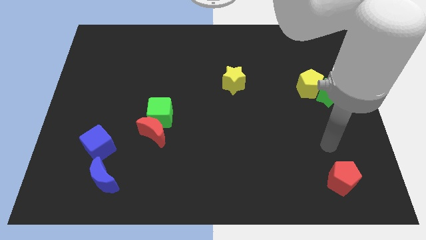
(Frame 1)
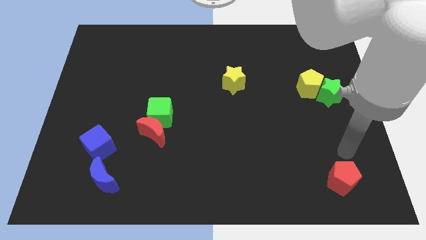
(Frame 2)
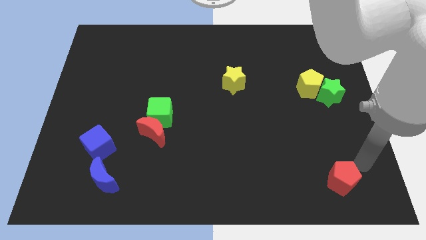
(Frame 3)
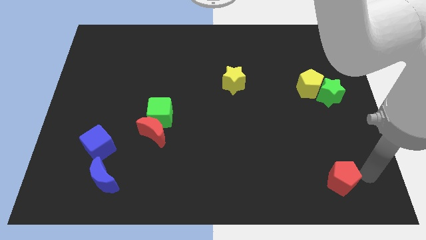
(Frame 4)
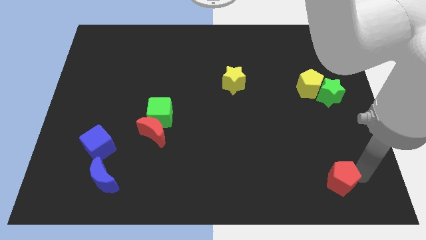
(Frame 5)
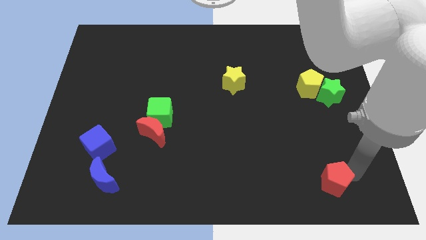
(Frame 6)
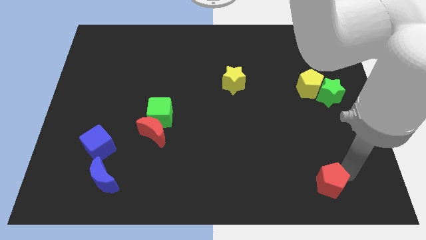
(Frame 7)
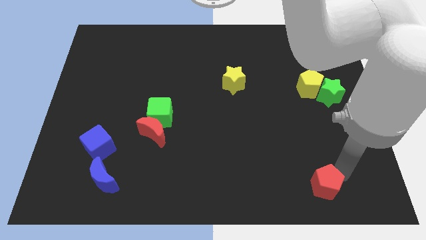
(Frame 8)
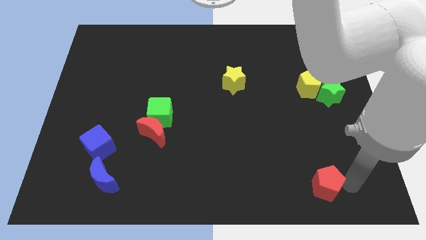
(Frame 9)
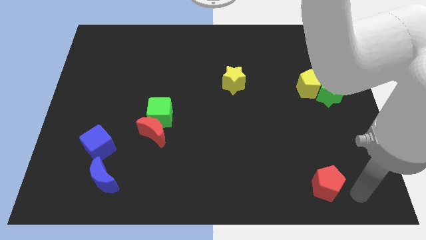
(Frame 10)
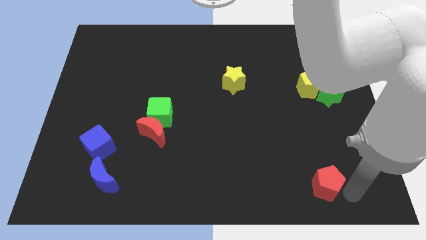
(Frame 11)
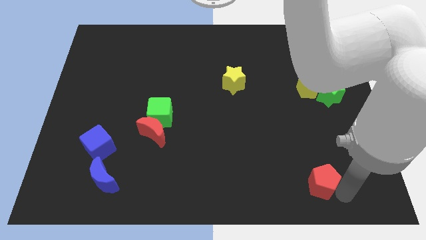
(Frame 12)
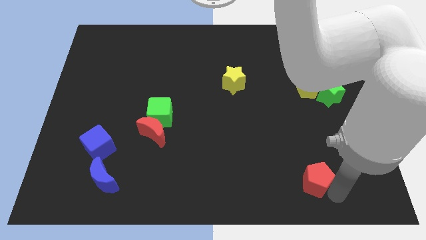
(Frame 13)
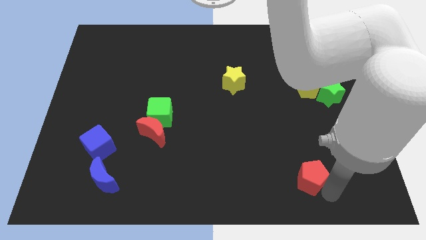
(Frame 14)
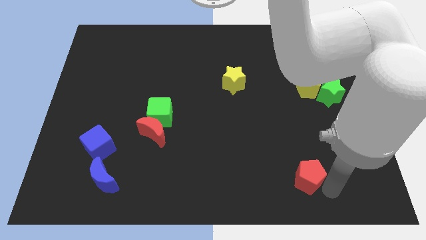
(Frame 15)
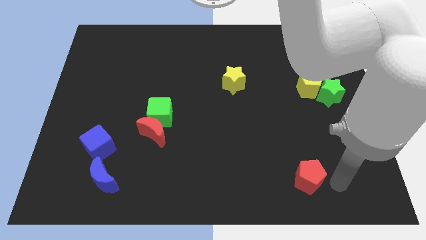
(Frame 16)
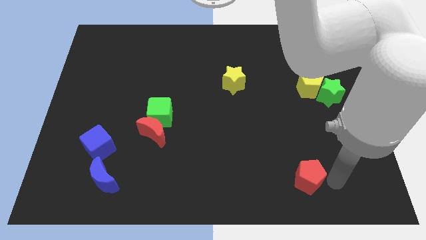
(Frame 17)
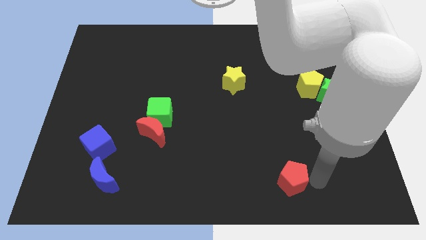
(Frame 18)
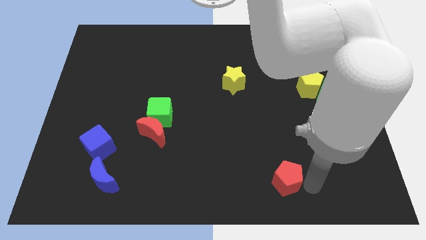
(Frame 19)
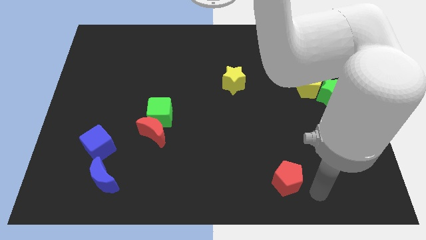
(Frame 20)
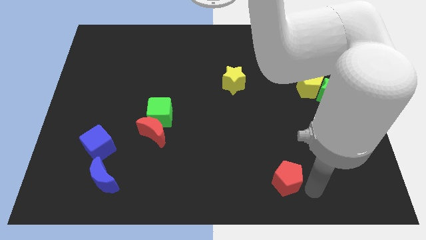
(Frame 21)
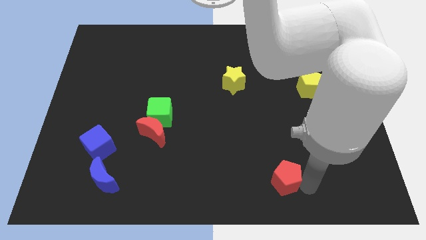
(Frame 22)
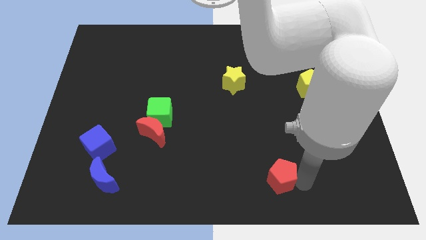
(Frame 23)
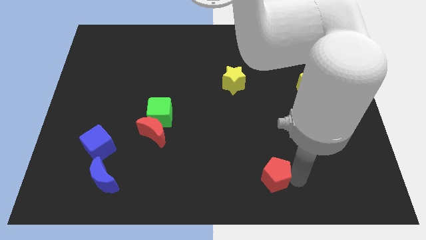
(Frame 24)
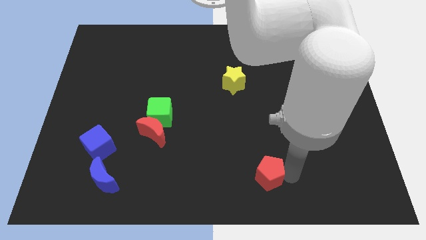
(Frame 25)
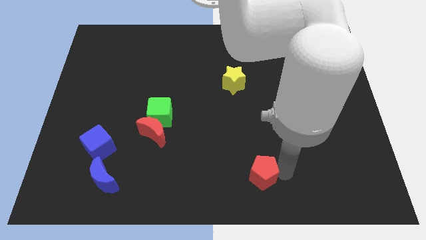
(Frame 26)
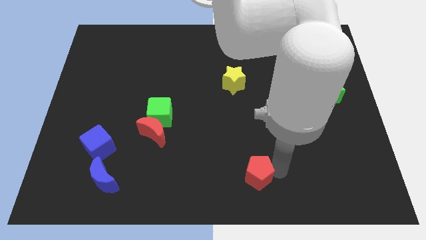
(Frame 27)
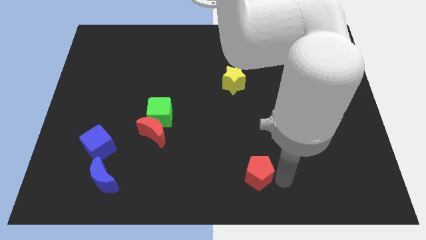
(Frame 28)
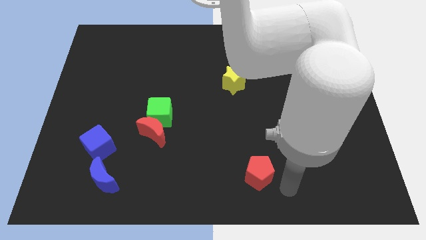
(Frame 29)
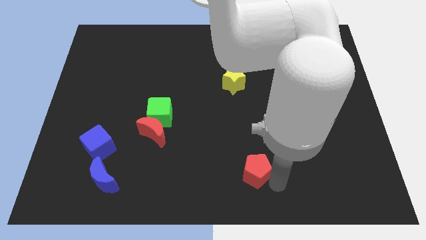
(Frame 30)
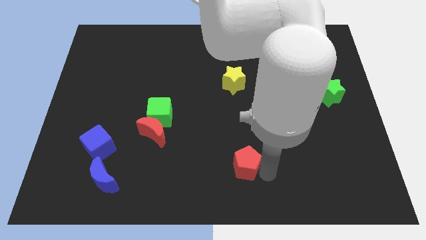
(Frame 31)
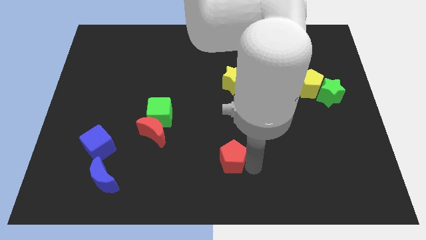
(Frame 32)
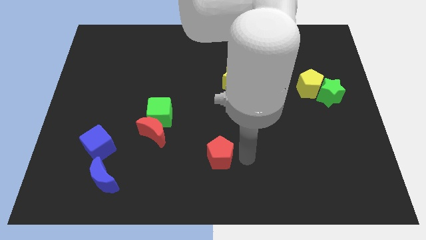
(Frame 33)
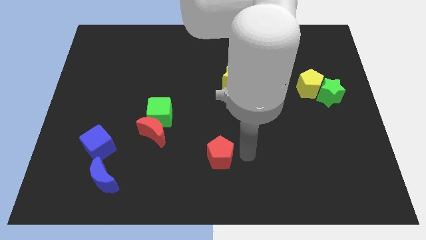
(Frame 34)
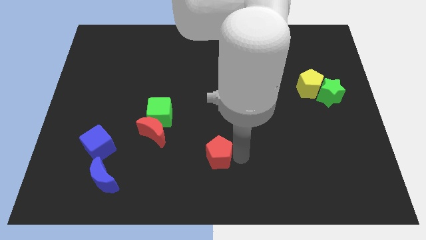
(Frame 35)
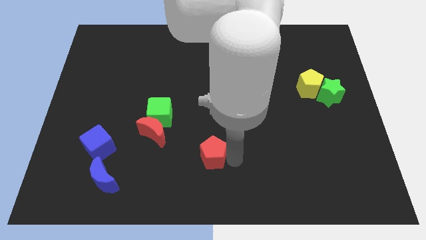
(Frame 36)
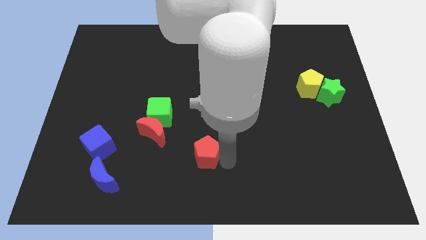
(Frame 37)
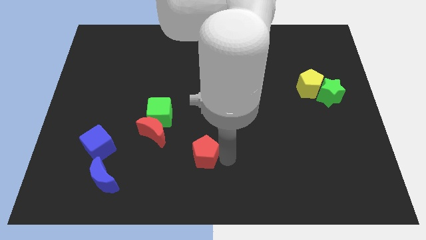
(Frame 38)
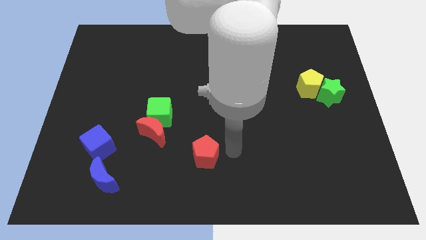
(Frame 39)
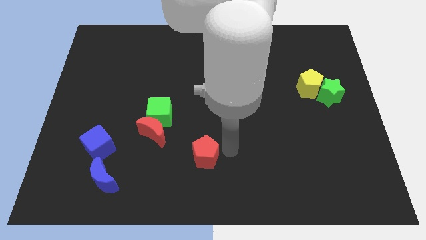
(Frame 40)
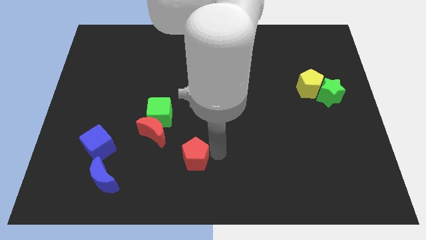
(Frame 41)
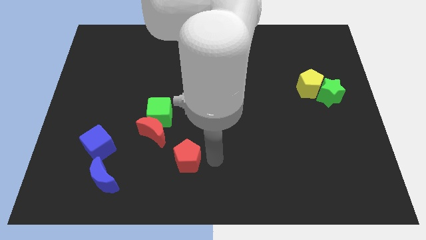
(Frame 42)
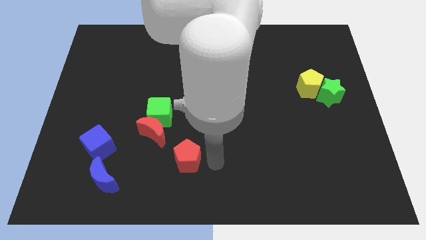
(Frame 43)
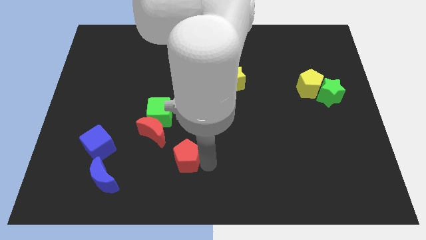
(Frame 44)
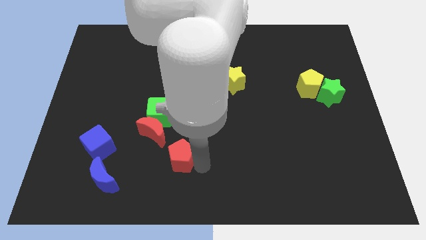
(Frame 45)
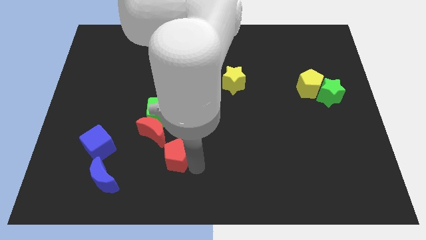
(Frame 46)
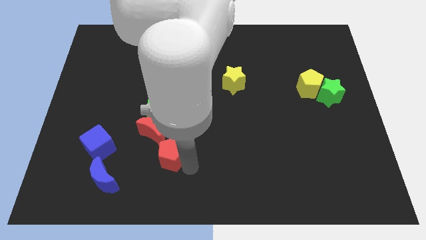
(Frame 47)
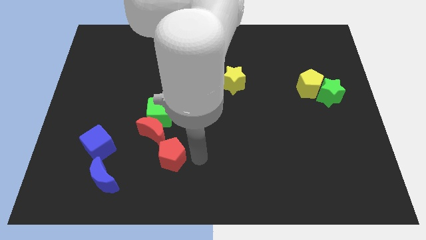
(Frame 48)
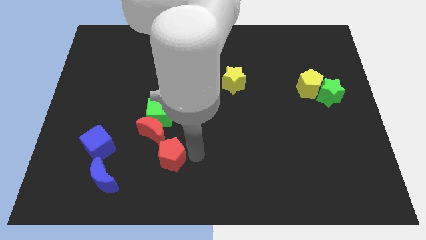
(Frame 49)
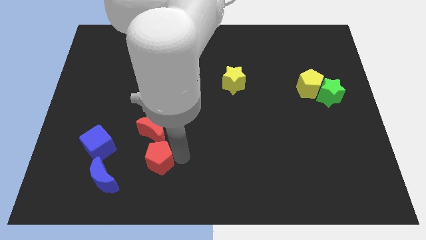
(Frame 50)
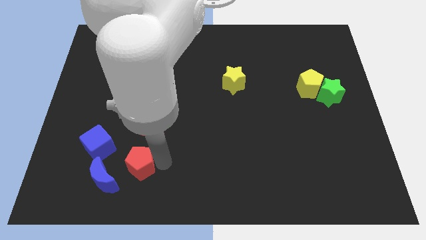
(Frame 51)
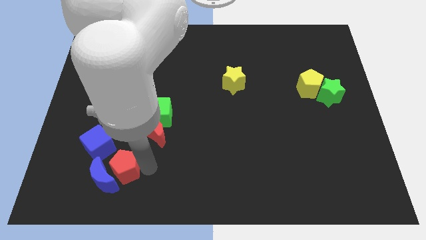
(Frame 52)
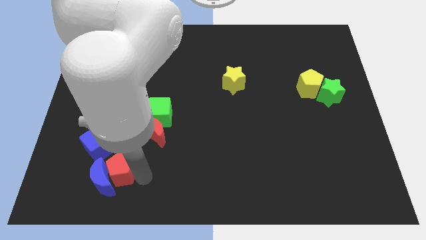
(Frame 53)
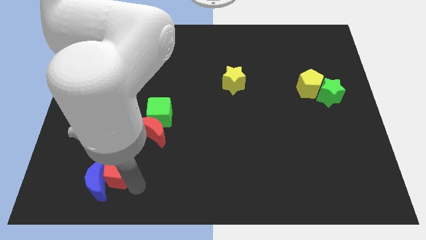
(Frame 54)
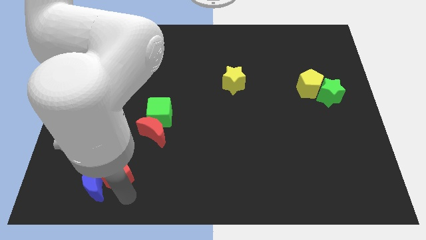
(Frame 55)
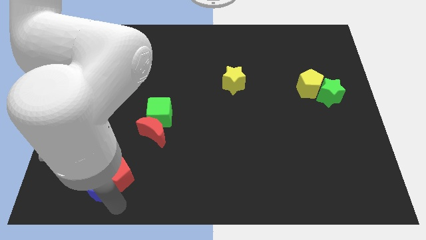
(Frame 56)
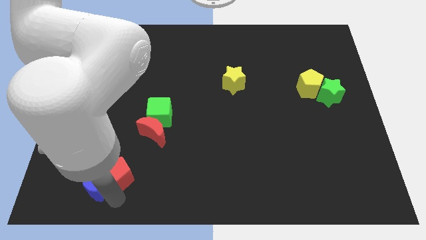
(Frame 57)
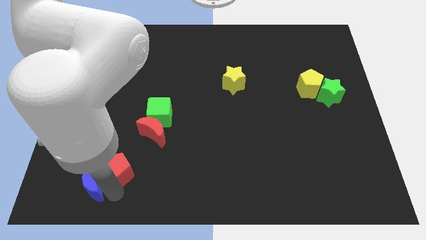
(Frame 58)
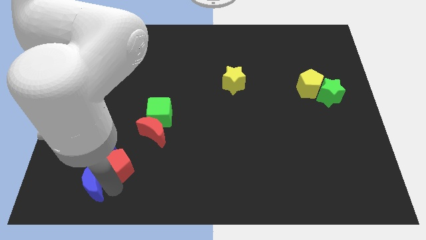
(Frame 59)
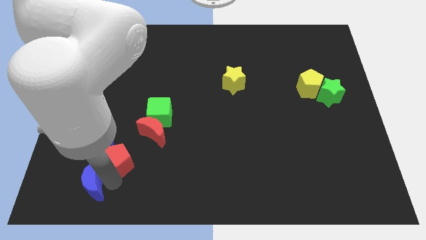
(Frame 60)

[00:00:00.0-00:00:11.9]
slide the red pentagon close to the blue cube

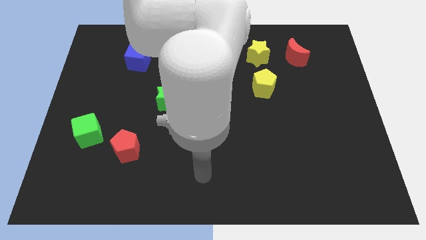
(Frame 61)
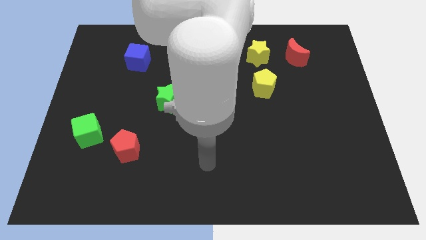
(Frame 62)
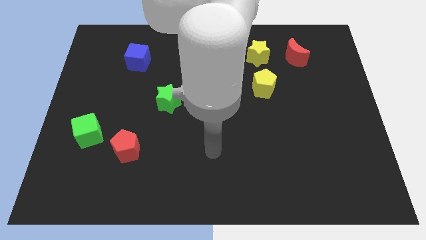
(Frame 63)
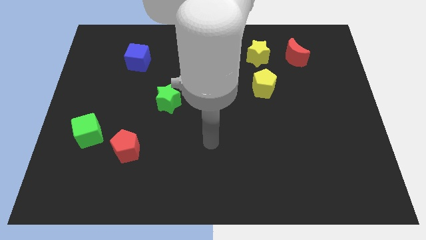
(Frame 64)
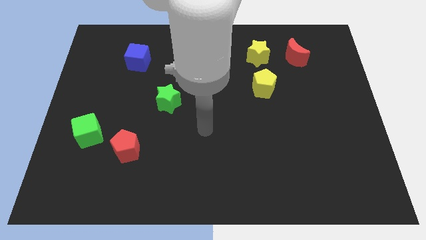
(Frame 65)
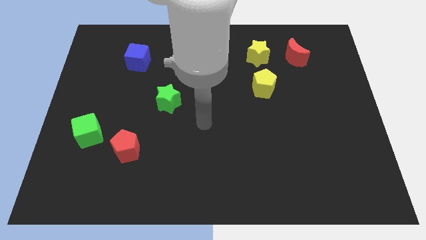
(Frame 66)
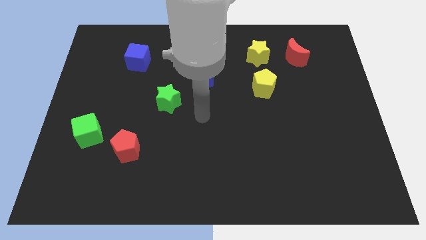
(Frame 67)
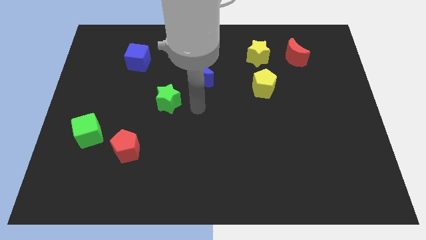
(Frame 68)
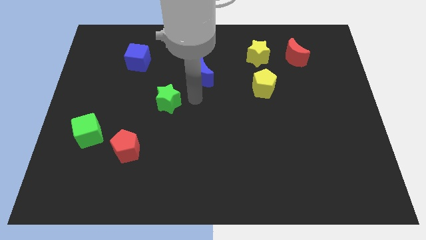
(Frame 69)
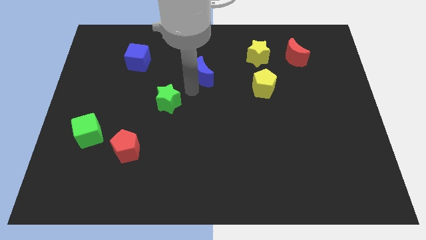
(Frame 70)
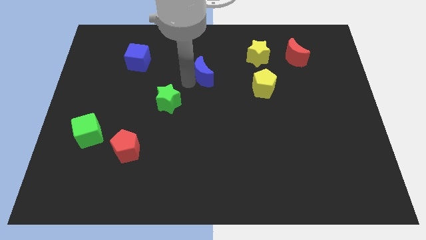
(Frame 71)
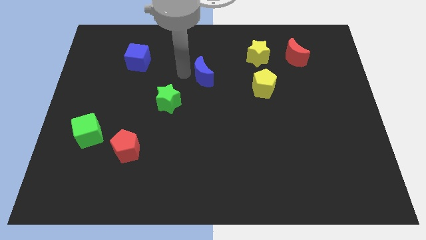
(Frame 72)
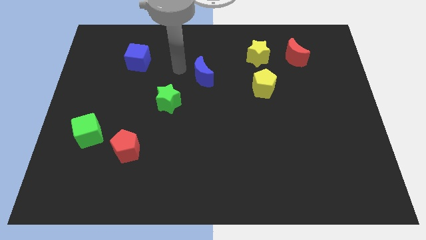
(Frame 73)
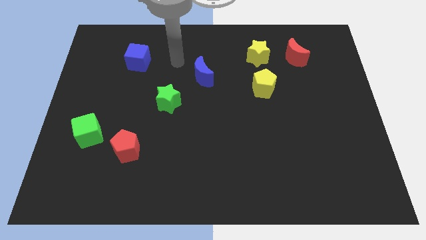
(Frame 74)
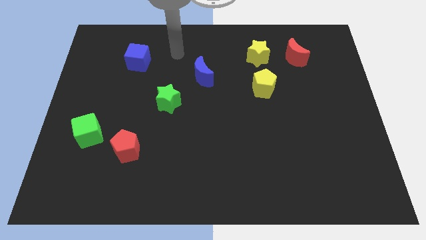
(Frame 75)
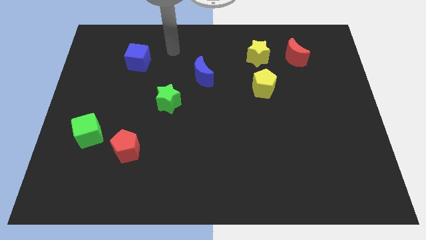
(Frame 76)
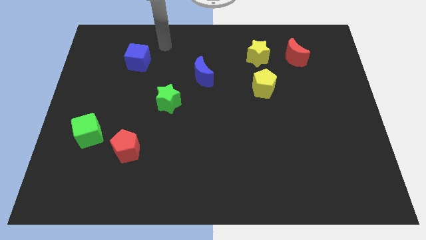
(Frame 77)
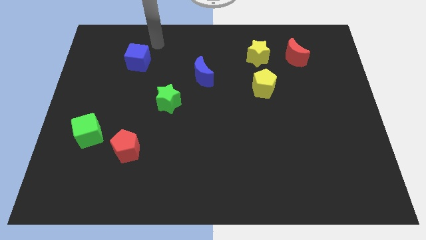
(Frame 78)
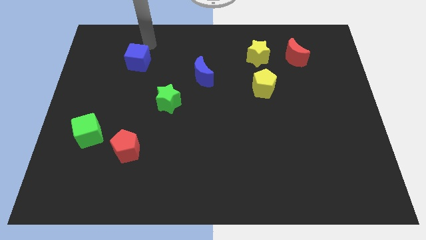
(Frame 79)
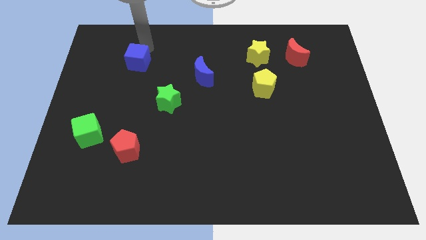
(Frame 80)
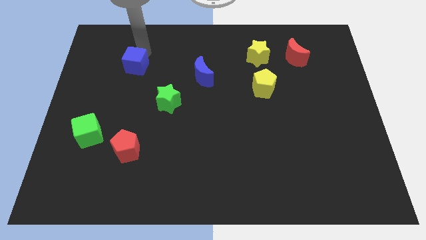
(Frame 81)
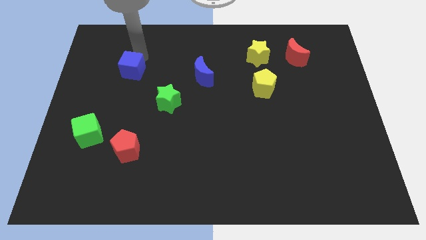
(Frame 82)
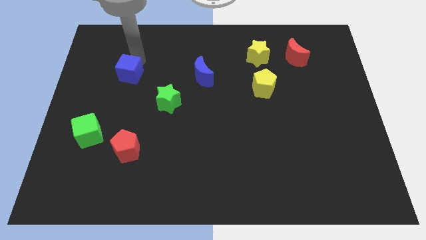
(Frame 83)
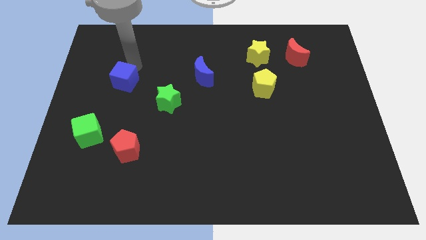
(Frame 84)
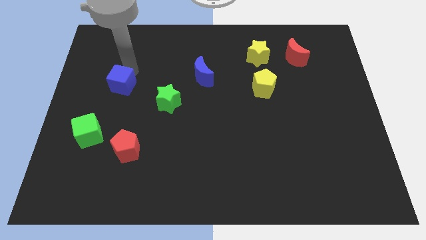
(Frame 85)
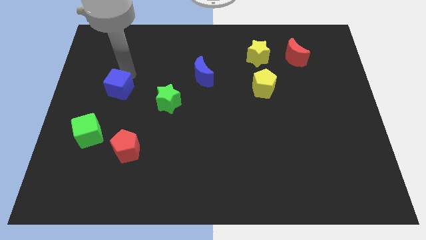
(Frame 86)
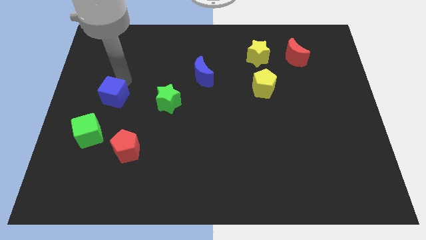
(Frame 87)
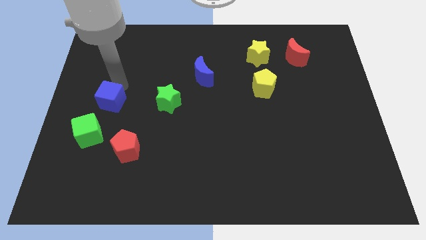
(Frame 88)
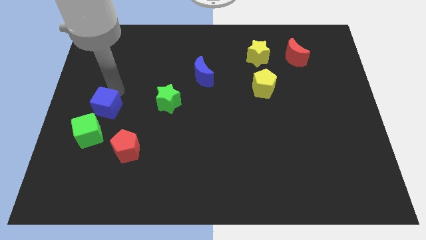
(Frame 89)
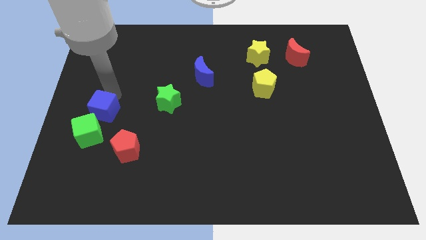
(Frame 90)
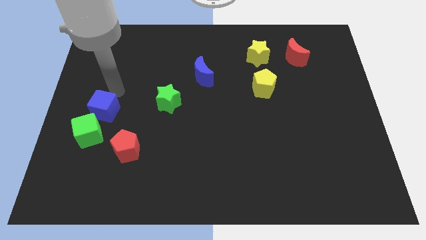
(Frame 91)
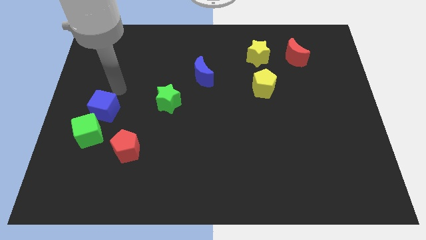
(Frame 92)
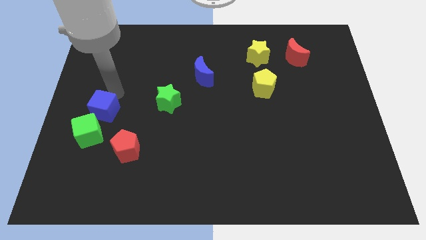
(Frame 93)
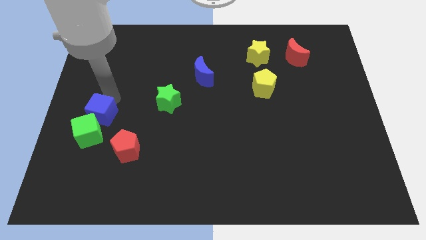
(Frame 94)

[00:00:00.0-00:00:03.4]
put the blue cube close to the green cube
